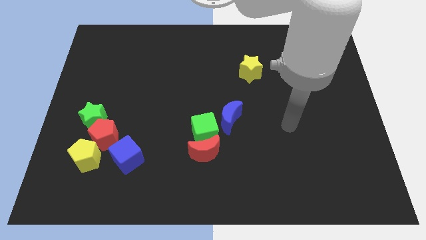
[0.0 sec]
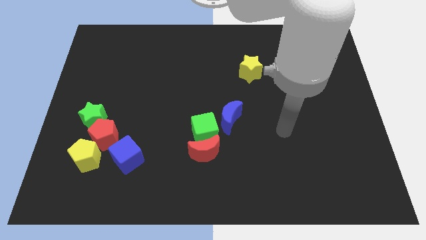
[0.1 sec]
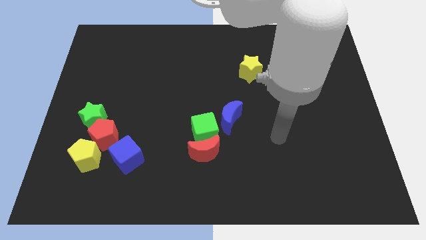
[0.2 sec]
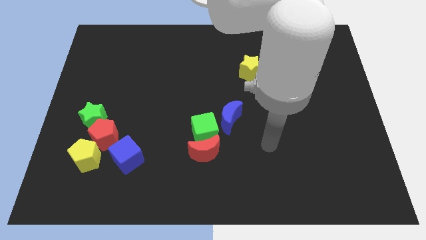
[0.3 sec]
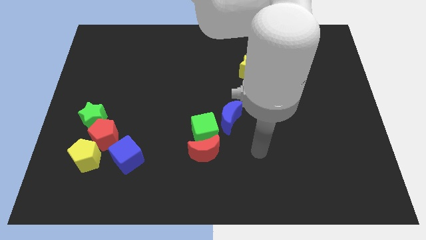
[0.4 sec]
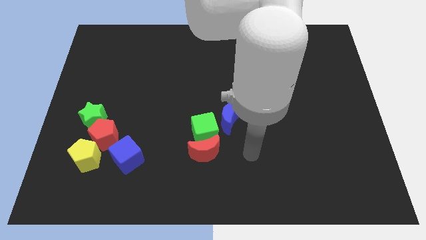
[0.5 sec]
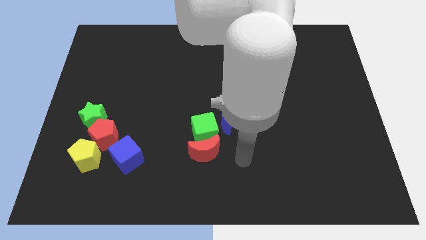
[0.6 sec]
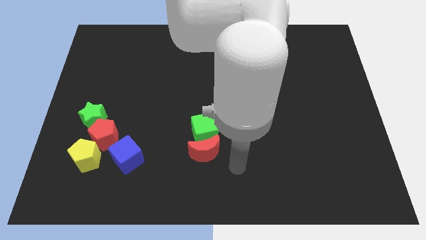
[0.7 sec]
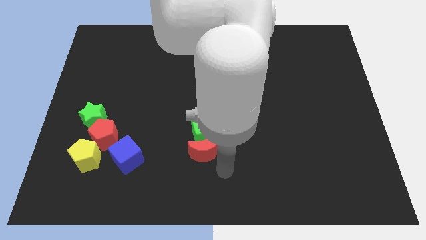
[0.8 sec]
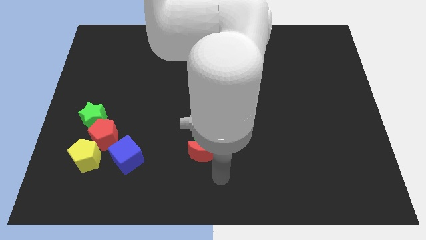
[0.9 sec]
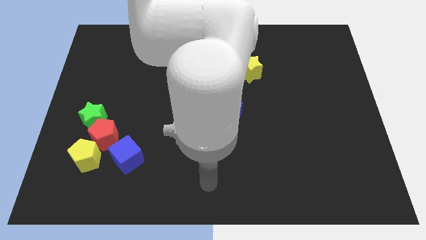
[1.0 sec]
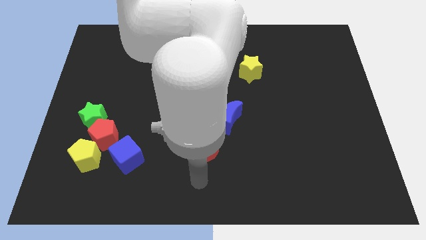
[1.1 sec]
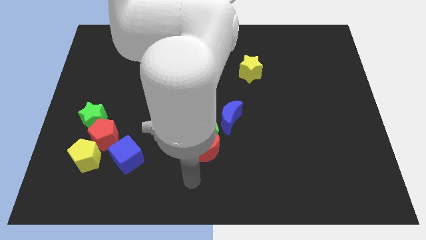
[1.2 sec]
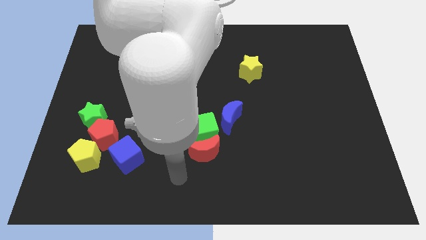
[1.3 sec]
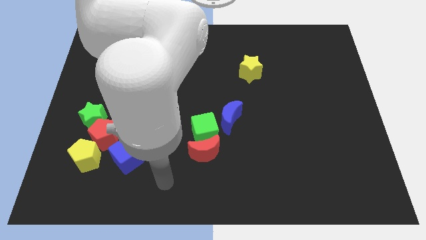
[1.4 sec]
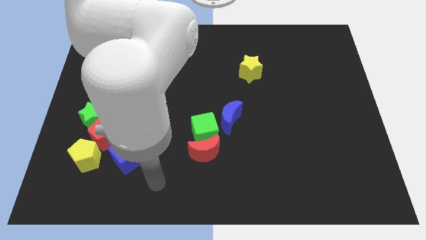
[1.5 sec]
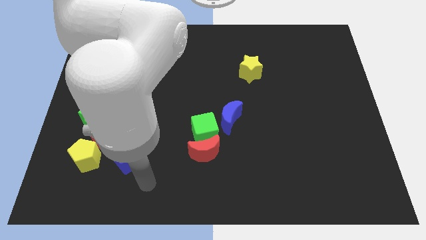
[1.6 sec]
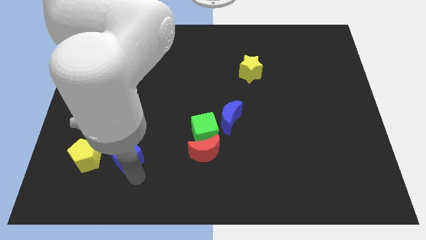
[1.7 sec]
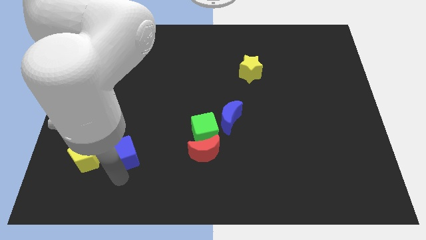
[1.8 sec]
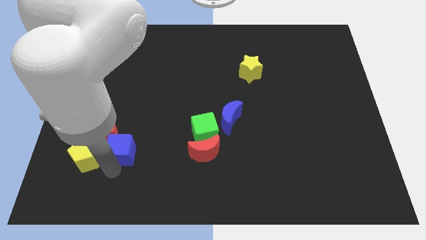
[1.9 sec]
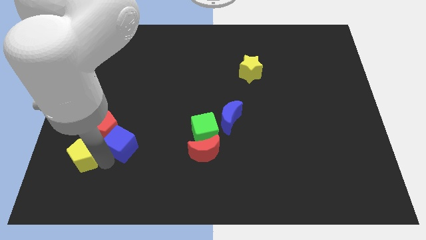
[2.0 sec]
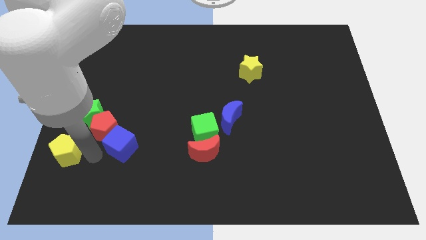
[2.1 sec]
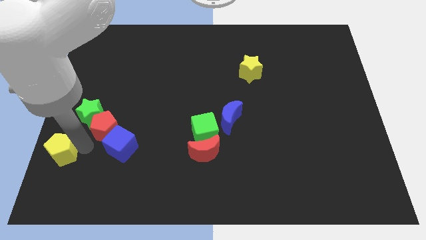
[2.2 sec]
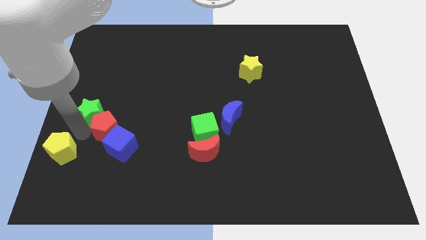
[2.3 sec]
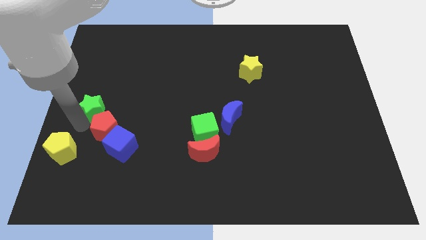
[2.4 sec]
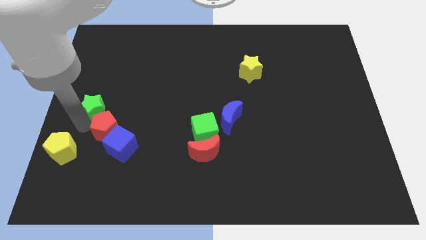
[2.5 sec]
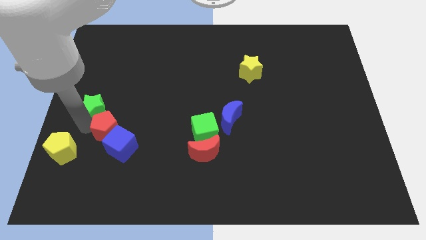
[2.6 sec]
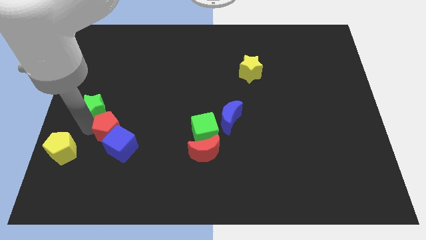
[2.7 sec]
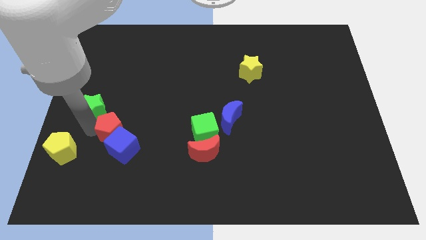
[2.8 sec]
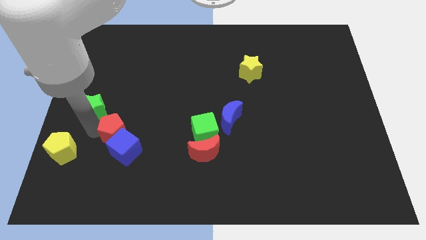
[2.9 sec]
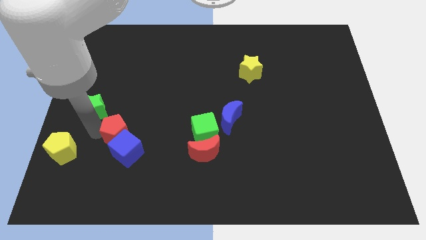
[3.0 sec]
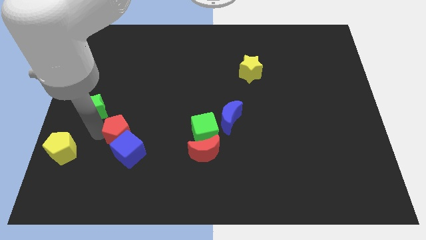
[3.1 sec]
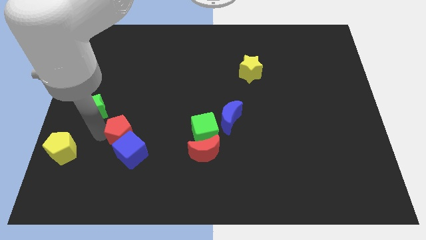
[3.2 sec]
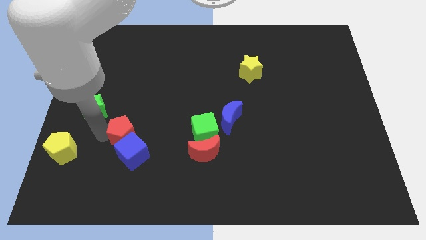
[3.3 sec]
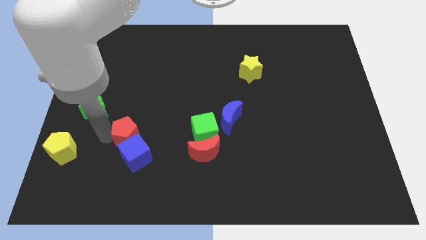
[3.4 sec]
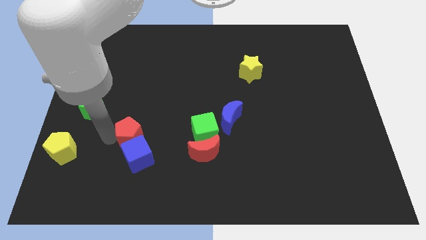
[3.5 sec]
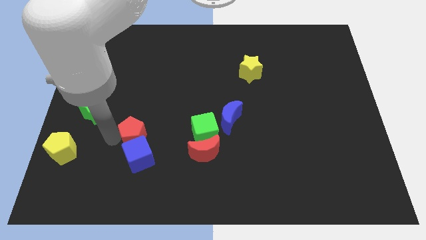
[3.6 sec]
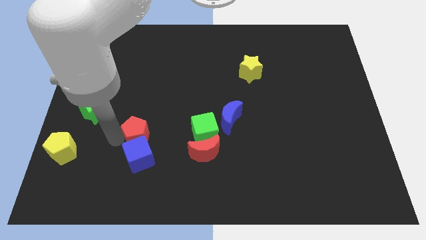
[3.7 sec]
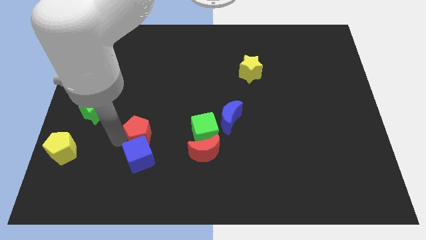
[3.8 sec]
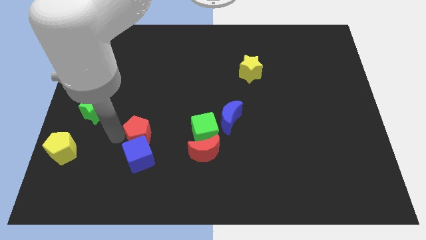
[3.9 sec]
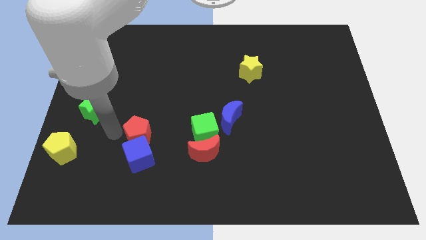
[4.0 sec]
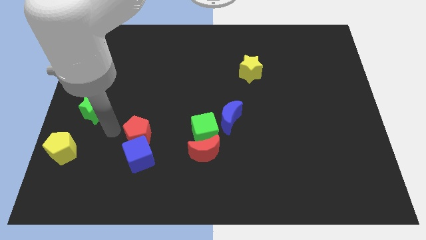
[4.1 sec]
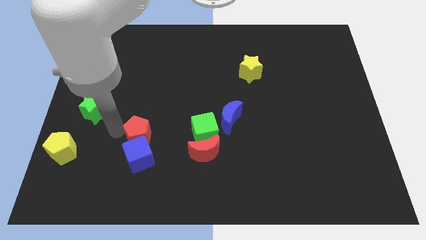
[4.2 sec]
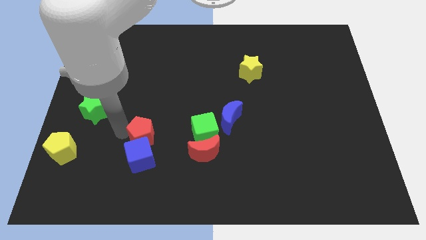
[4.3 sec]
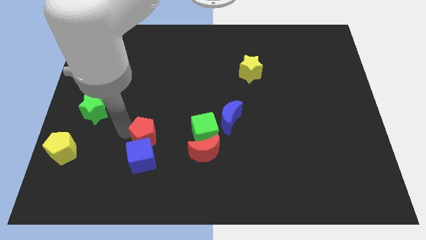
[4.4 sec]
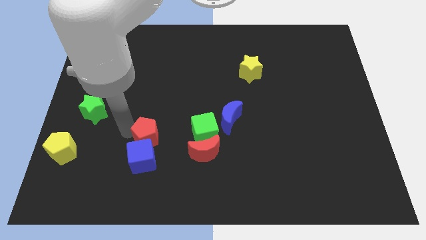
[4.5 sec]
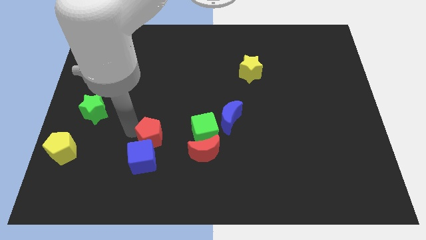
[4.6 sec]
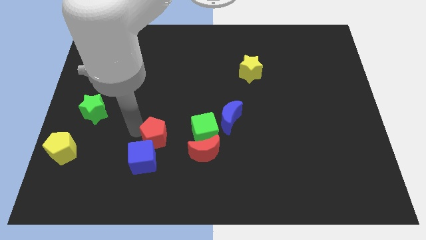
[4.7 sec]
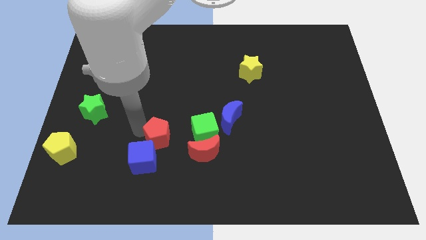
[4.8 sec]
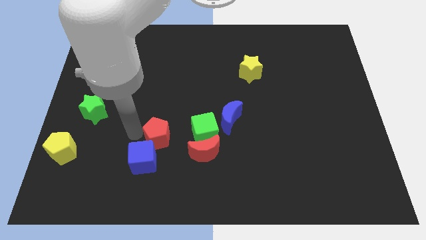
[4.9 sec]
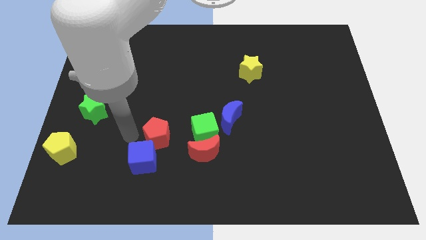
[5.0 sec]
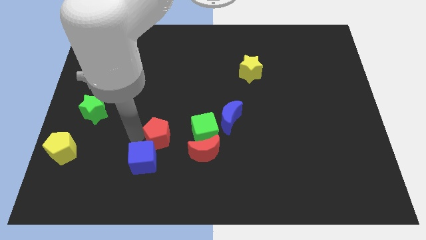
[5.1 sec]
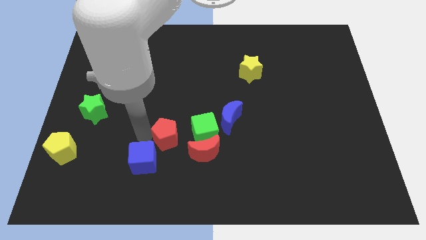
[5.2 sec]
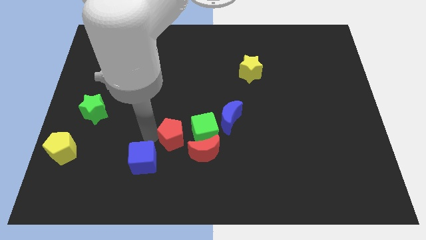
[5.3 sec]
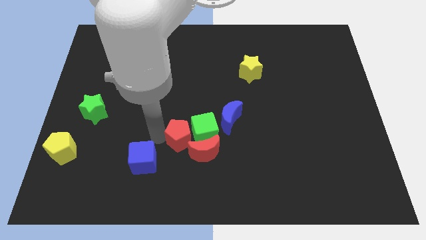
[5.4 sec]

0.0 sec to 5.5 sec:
slide the red pentagon towards the green cube

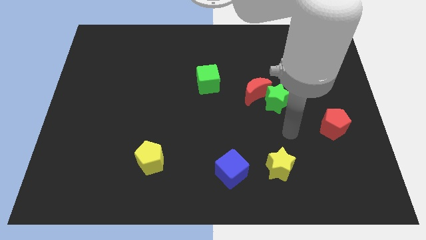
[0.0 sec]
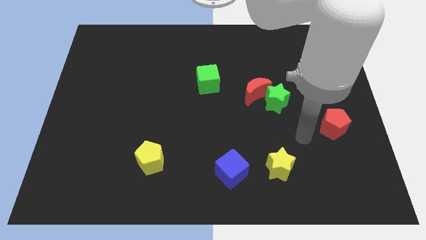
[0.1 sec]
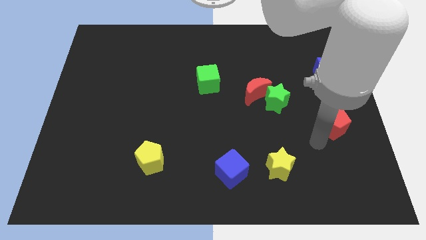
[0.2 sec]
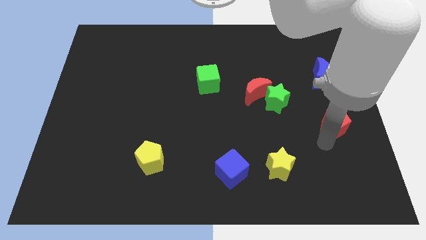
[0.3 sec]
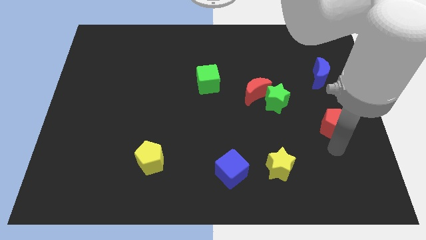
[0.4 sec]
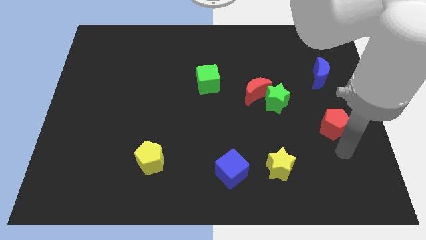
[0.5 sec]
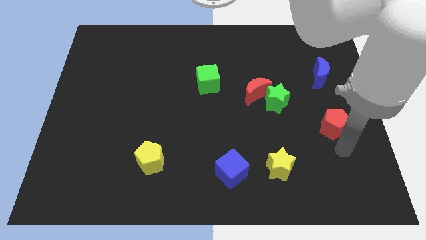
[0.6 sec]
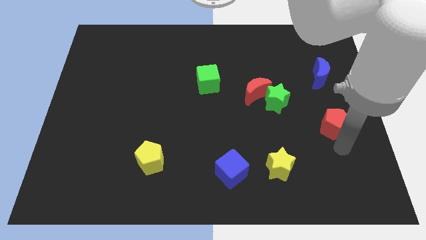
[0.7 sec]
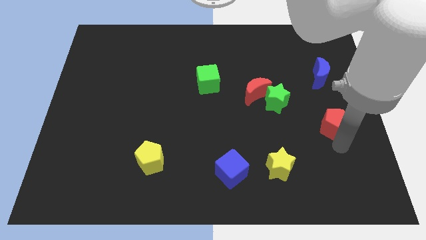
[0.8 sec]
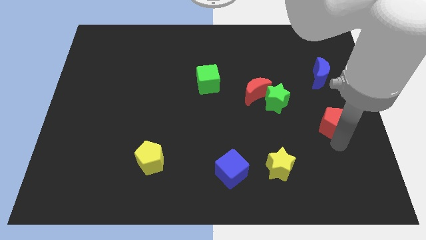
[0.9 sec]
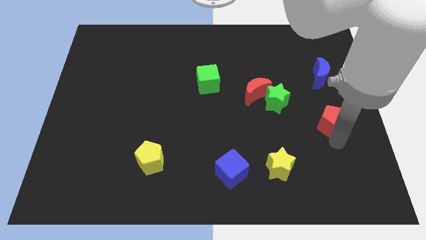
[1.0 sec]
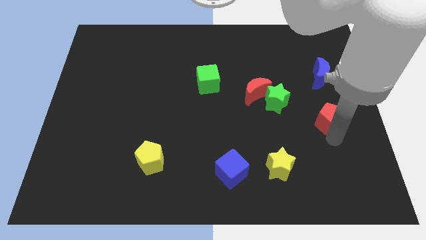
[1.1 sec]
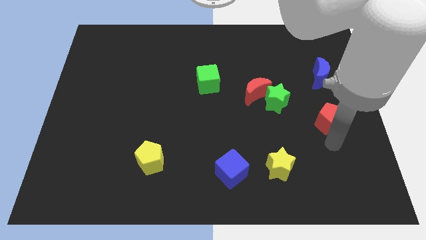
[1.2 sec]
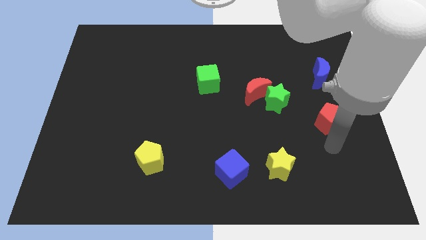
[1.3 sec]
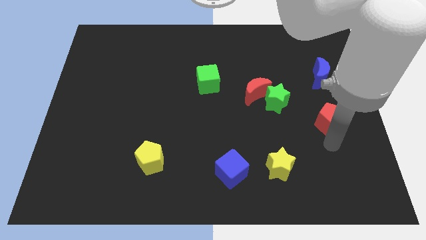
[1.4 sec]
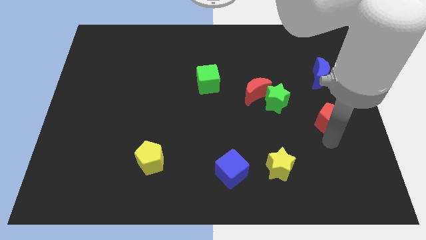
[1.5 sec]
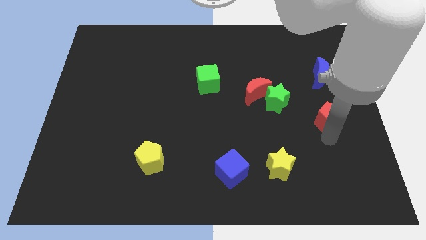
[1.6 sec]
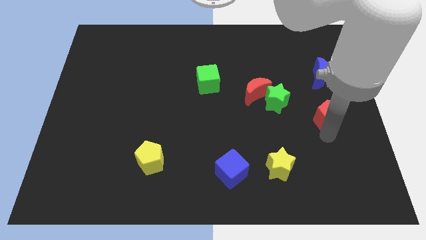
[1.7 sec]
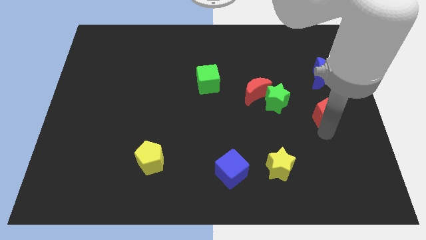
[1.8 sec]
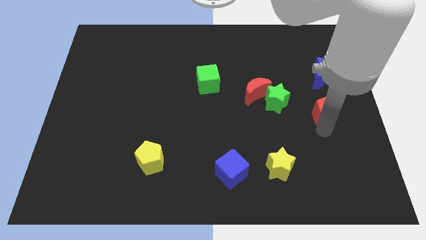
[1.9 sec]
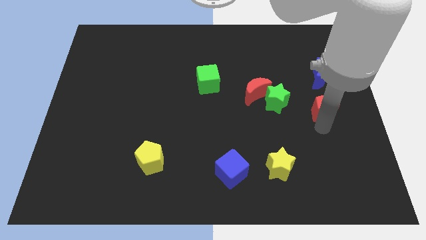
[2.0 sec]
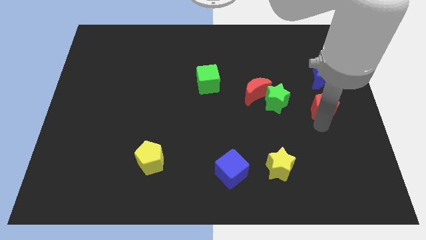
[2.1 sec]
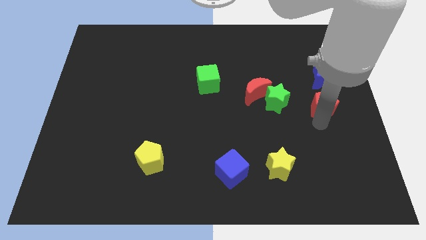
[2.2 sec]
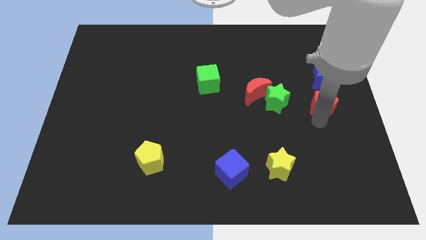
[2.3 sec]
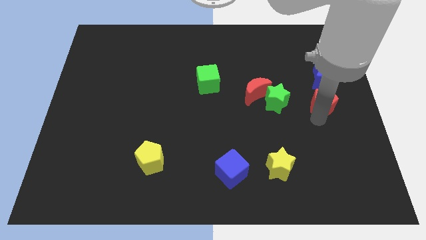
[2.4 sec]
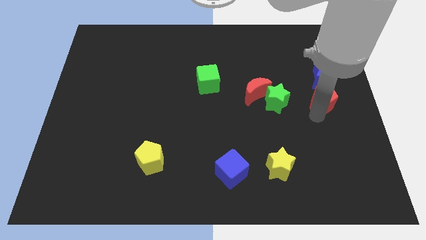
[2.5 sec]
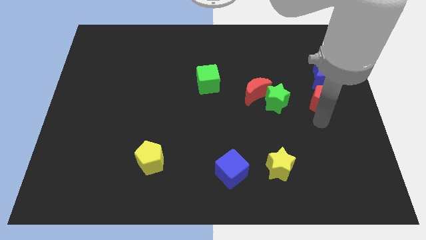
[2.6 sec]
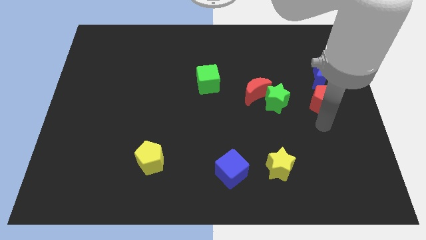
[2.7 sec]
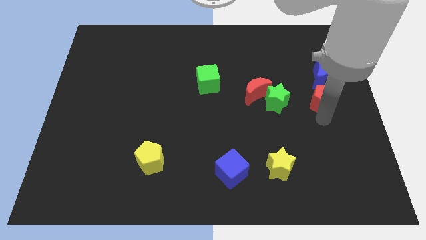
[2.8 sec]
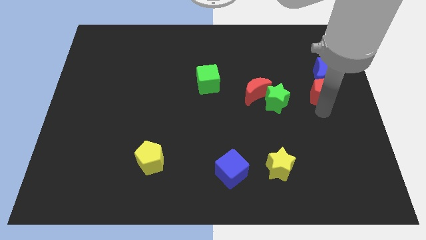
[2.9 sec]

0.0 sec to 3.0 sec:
put the red pentagon towards the blue moon
